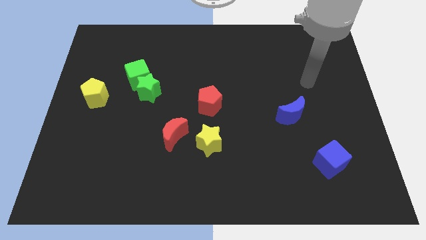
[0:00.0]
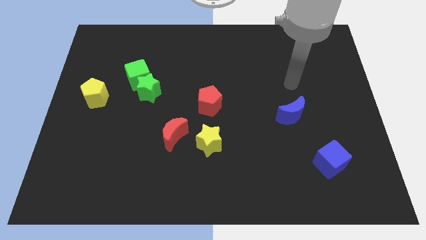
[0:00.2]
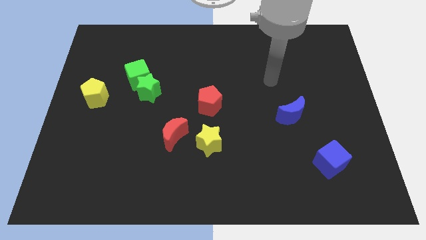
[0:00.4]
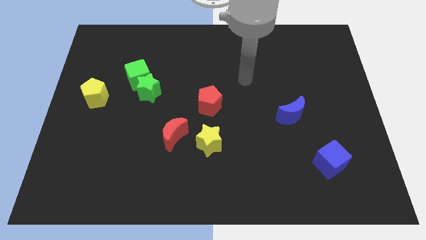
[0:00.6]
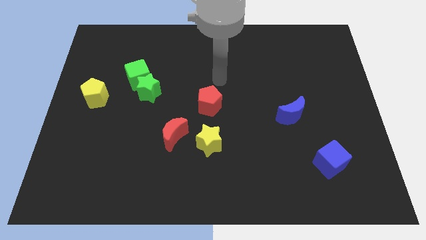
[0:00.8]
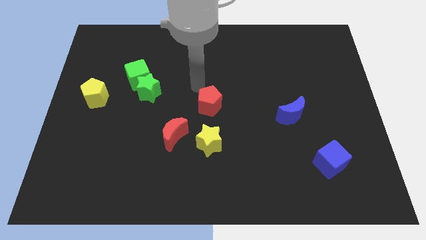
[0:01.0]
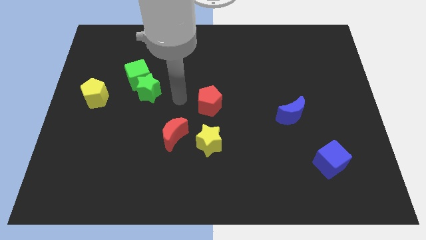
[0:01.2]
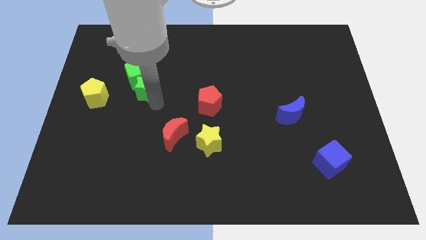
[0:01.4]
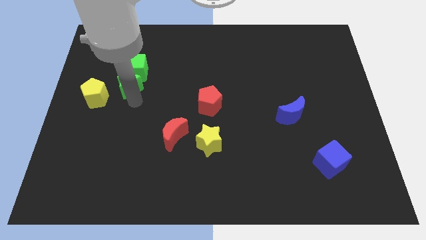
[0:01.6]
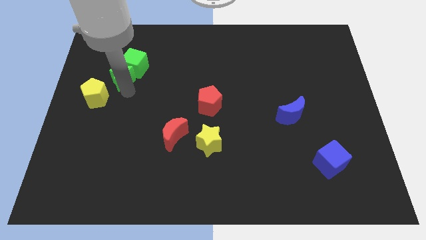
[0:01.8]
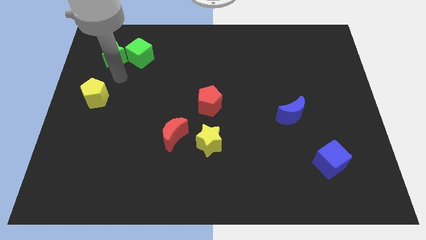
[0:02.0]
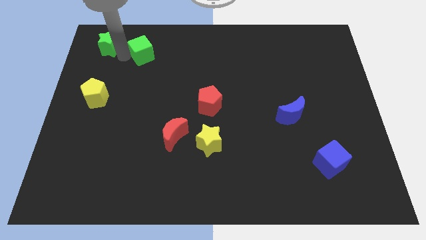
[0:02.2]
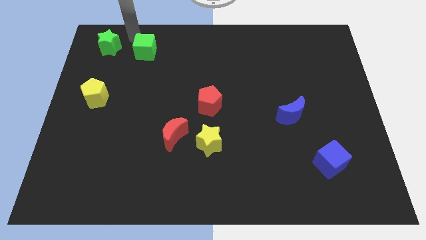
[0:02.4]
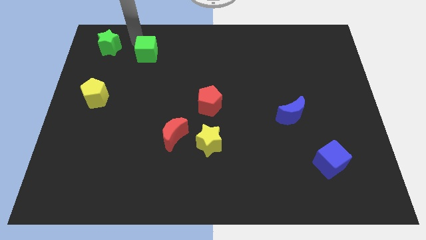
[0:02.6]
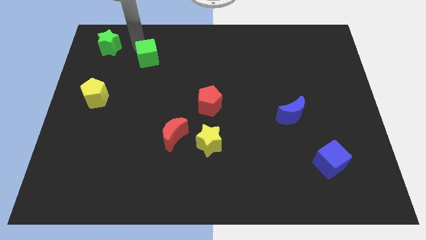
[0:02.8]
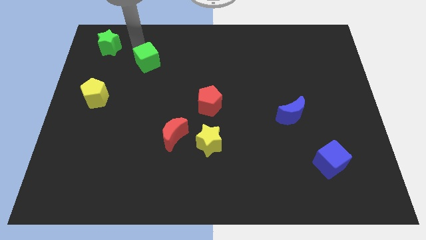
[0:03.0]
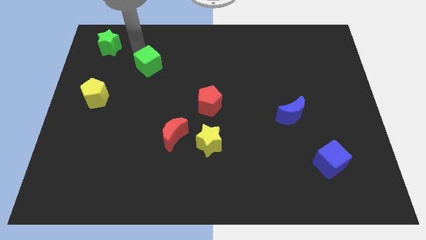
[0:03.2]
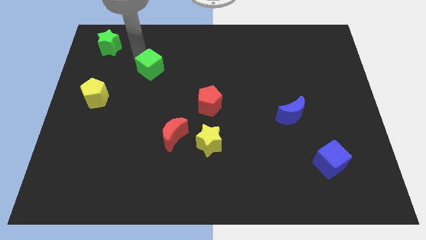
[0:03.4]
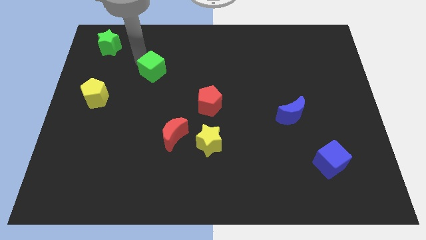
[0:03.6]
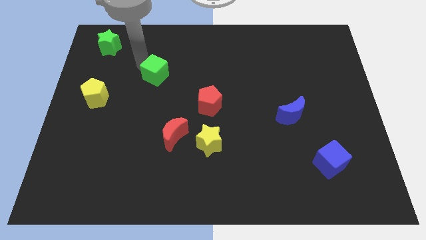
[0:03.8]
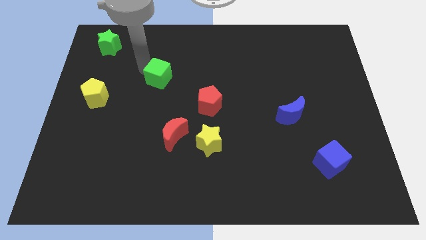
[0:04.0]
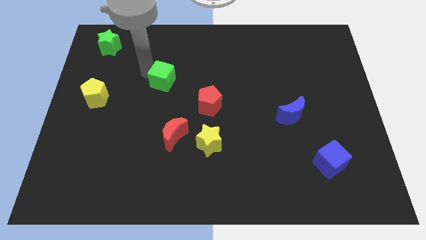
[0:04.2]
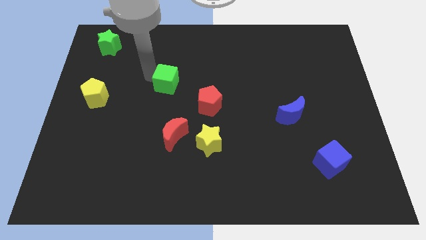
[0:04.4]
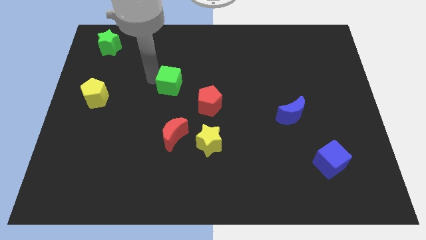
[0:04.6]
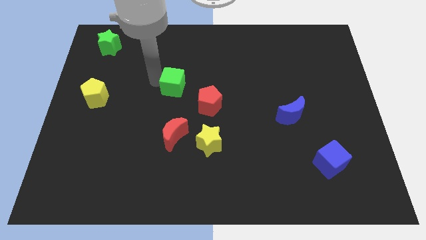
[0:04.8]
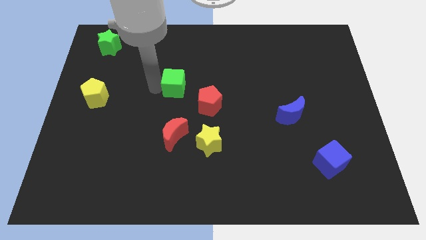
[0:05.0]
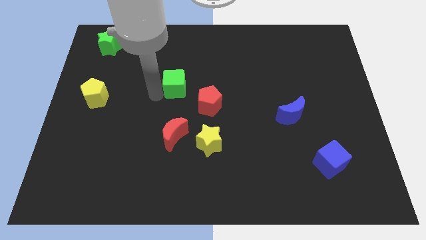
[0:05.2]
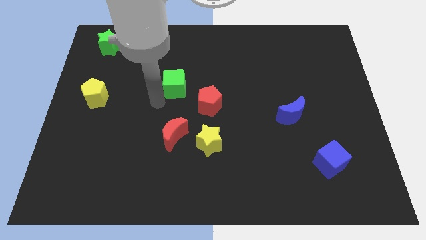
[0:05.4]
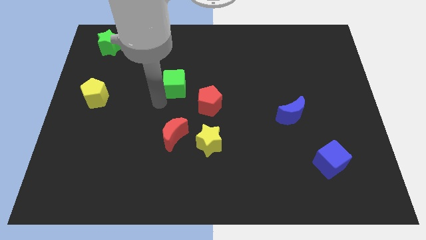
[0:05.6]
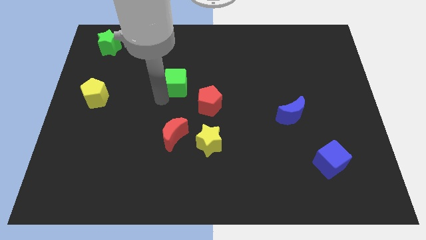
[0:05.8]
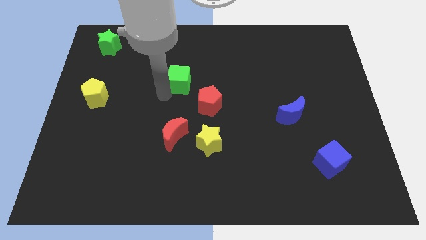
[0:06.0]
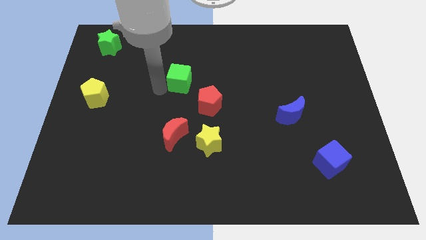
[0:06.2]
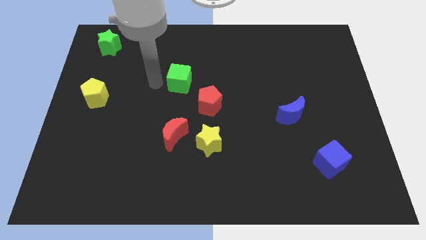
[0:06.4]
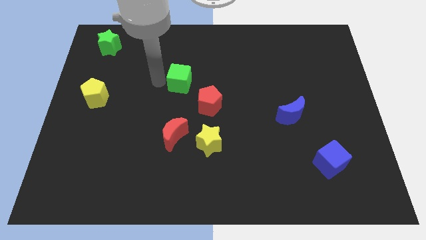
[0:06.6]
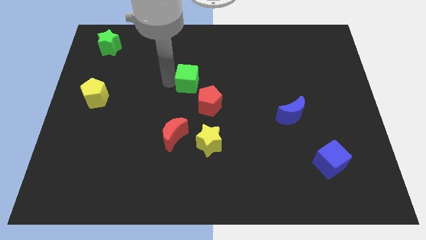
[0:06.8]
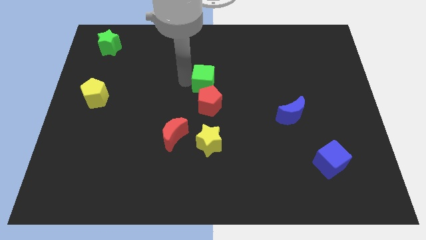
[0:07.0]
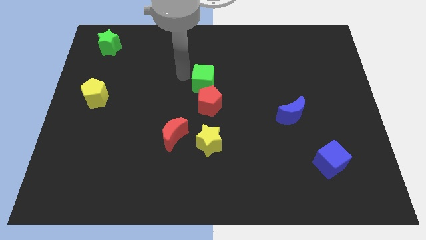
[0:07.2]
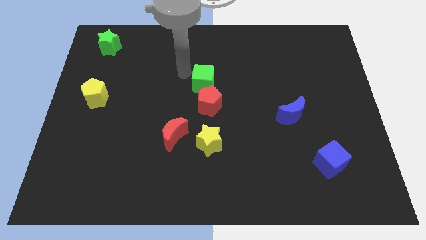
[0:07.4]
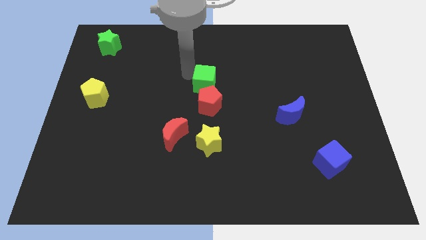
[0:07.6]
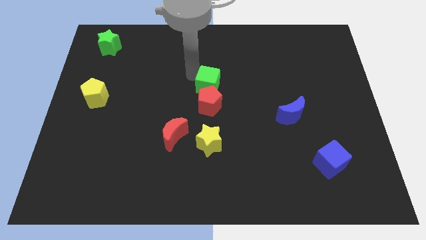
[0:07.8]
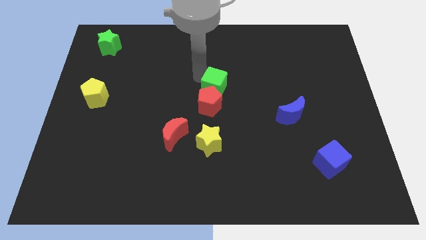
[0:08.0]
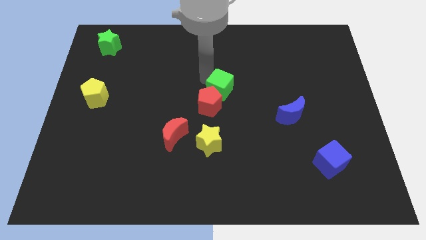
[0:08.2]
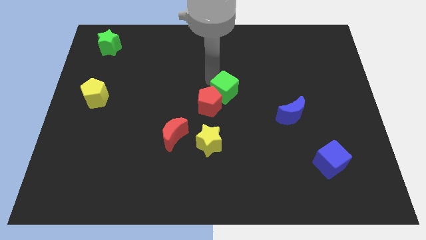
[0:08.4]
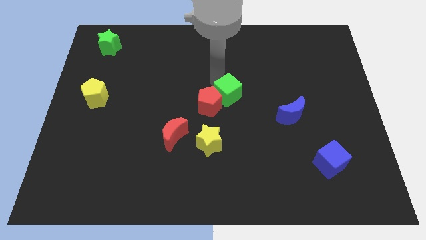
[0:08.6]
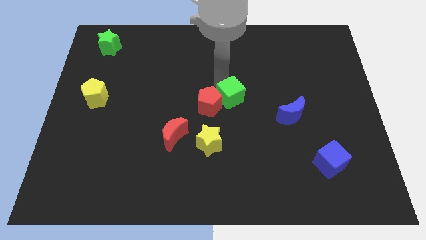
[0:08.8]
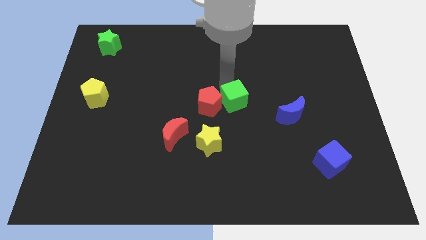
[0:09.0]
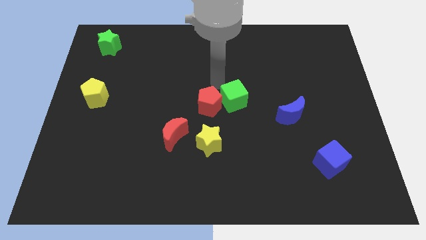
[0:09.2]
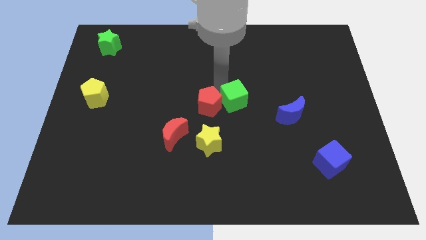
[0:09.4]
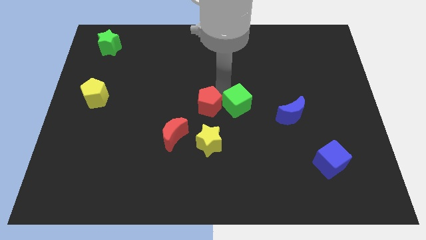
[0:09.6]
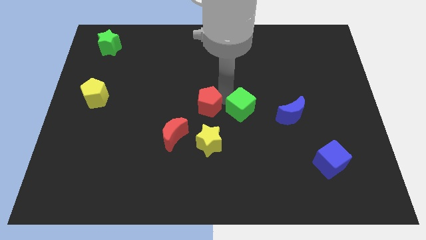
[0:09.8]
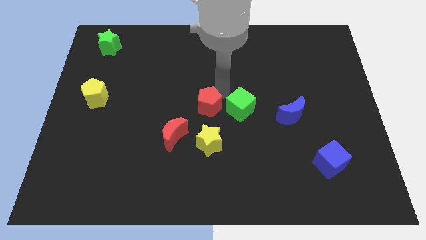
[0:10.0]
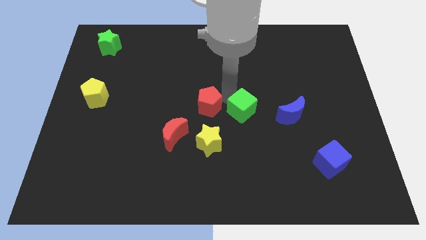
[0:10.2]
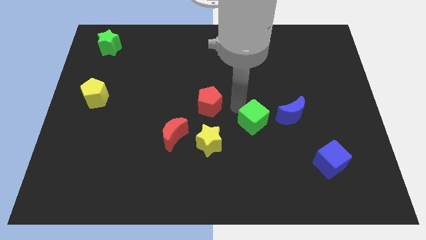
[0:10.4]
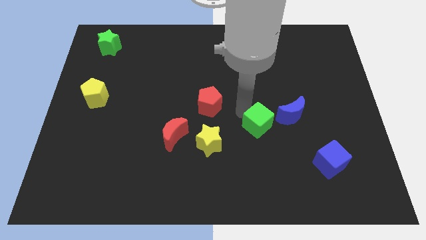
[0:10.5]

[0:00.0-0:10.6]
move the green cube diagonally down and to the left of the blue moon

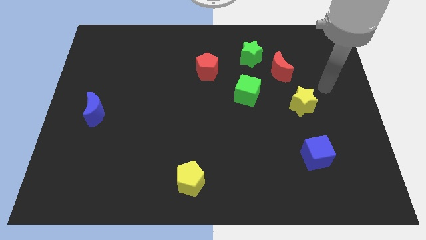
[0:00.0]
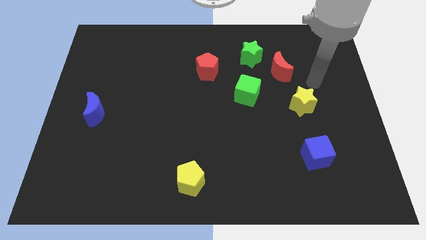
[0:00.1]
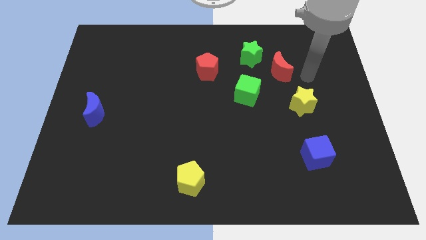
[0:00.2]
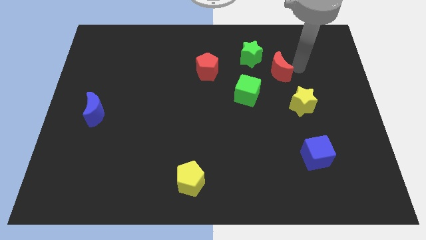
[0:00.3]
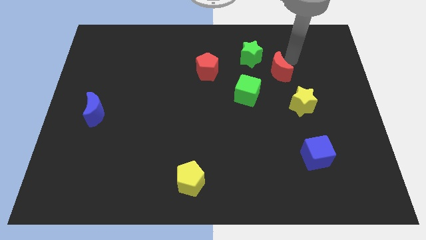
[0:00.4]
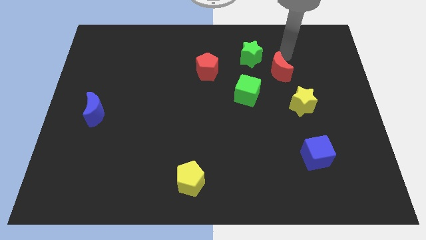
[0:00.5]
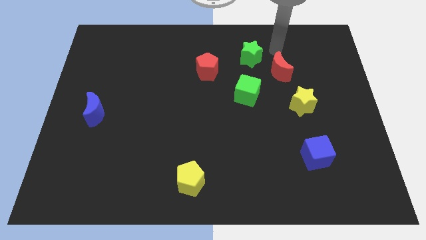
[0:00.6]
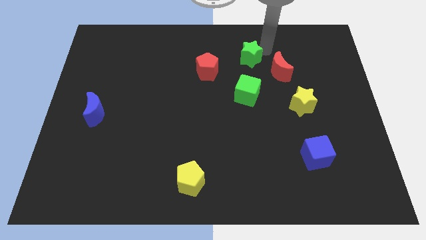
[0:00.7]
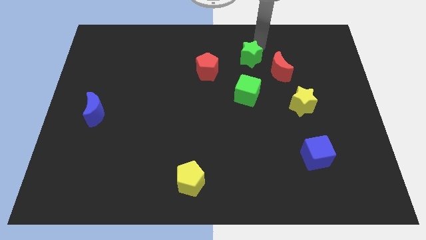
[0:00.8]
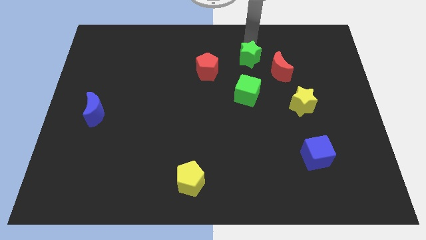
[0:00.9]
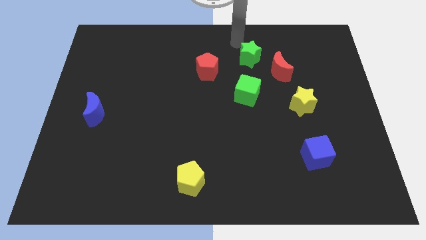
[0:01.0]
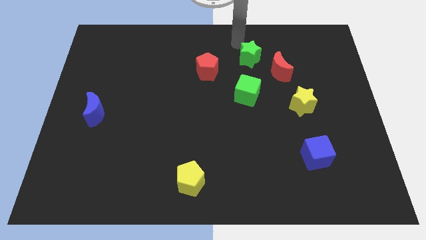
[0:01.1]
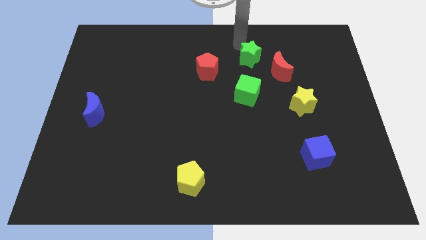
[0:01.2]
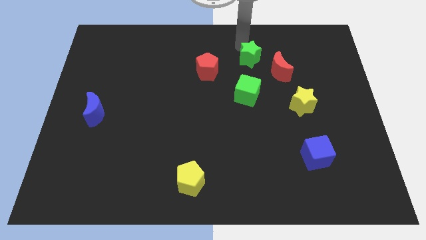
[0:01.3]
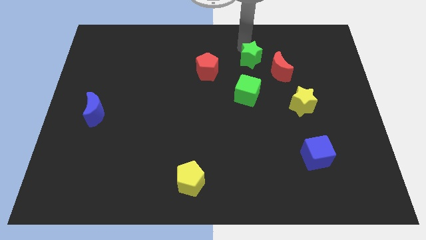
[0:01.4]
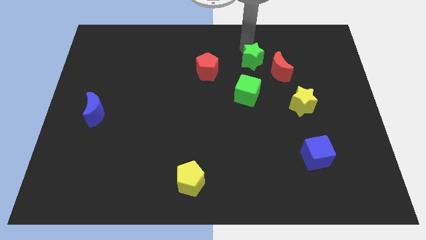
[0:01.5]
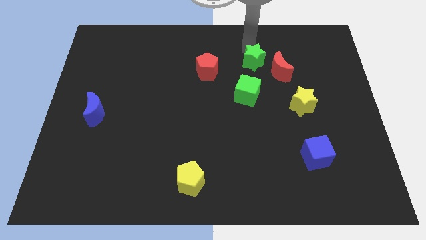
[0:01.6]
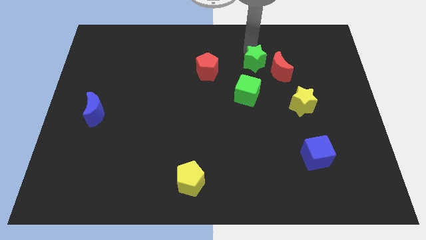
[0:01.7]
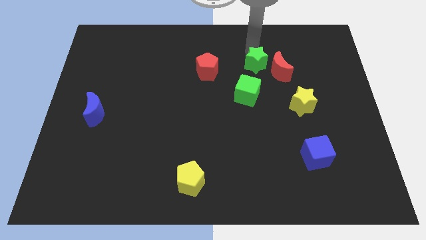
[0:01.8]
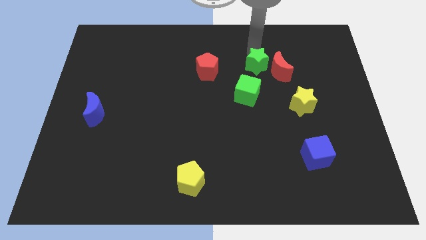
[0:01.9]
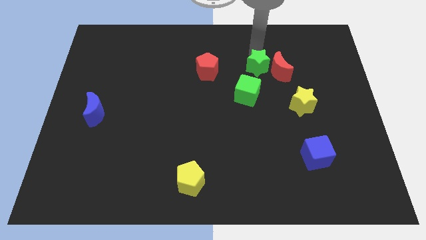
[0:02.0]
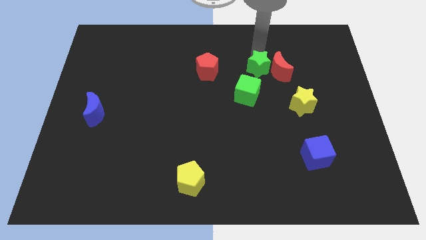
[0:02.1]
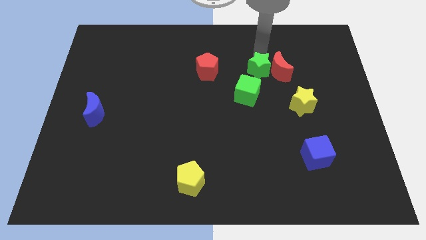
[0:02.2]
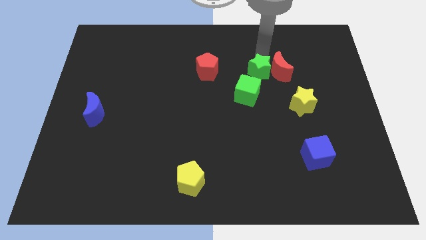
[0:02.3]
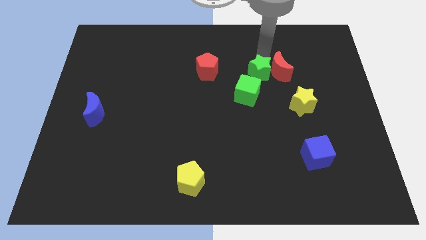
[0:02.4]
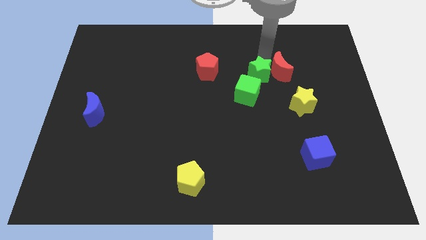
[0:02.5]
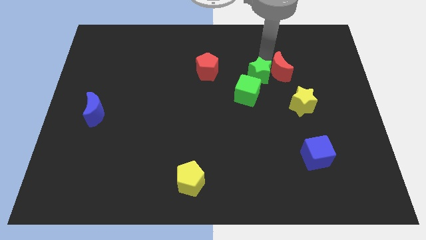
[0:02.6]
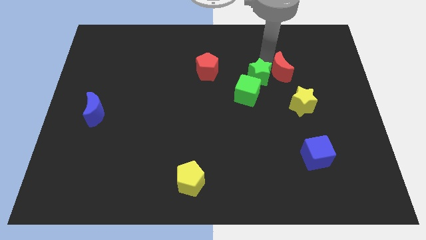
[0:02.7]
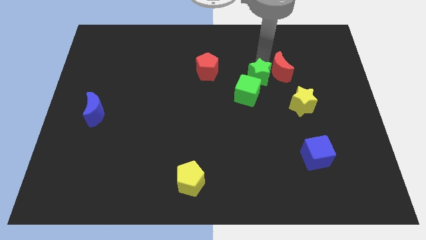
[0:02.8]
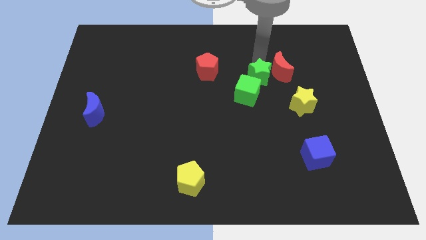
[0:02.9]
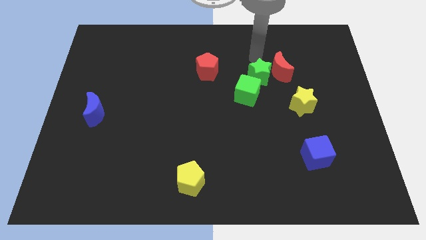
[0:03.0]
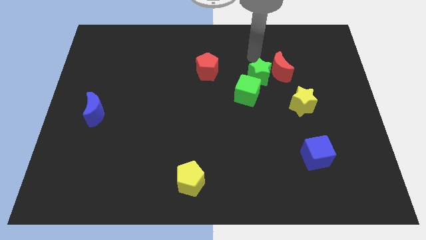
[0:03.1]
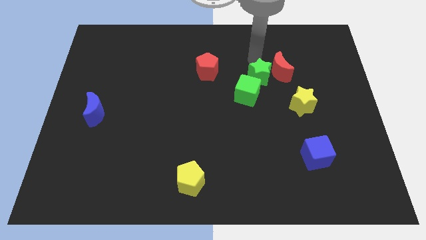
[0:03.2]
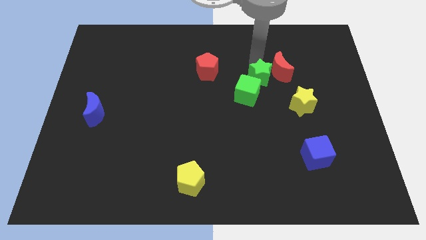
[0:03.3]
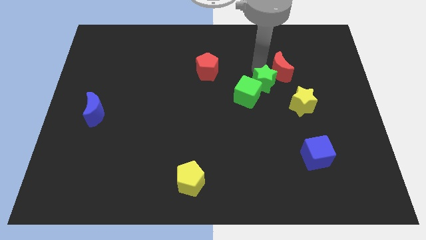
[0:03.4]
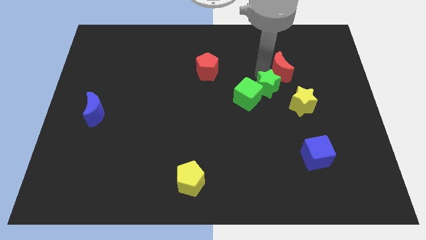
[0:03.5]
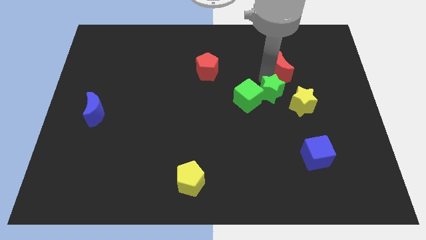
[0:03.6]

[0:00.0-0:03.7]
put the green star to the left of the yellow star

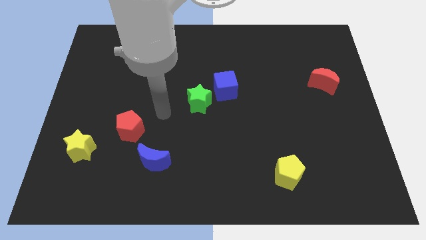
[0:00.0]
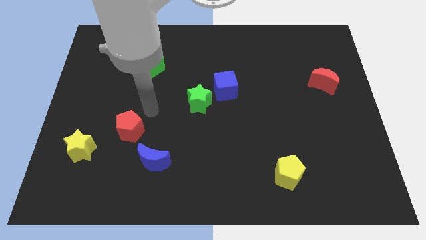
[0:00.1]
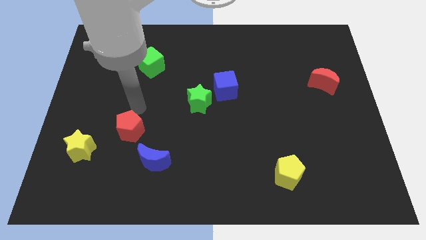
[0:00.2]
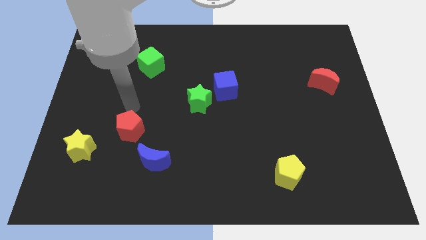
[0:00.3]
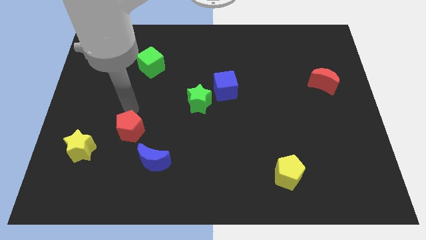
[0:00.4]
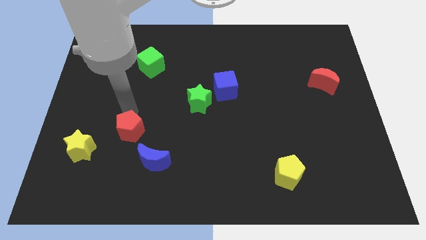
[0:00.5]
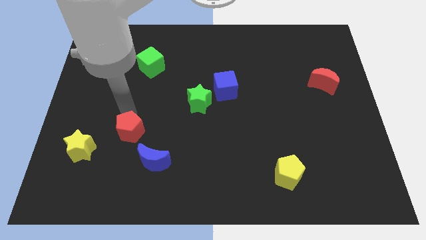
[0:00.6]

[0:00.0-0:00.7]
put the red pentagon to the right of the yellow star
